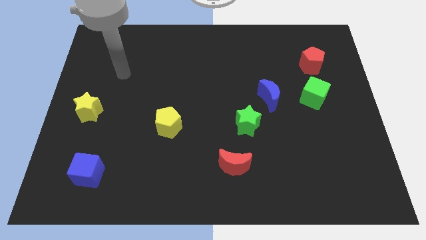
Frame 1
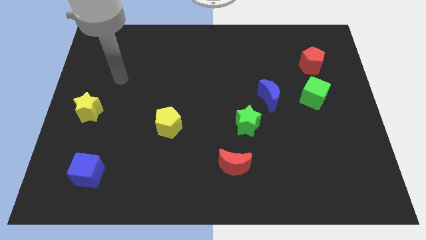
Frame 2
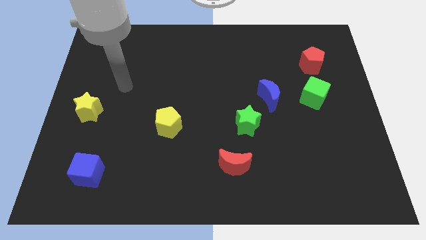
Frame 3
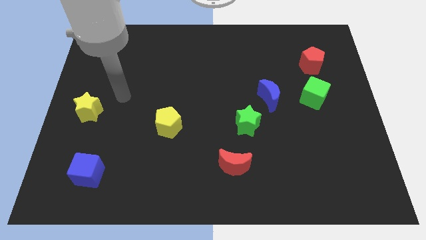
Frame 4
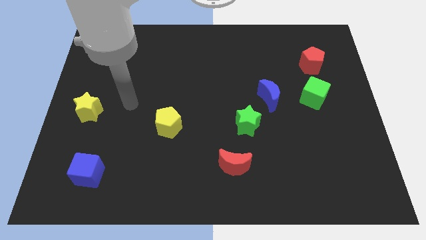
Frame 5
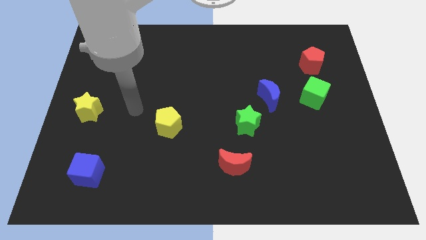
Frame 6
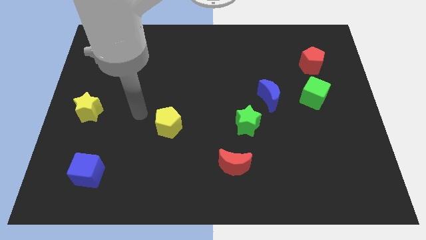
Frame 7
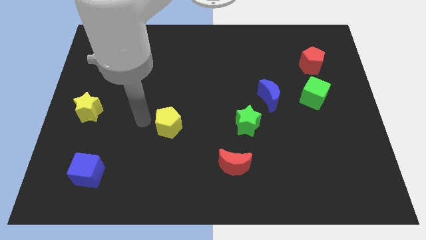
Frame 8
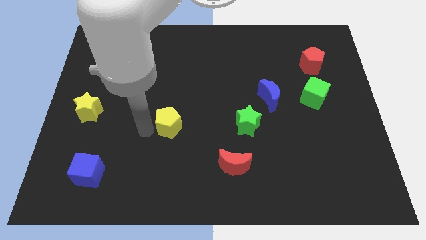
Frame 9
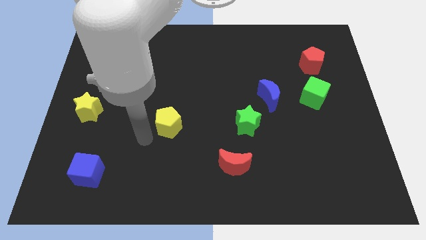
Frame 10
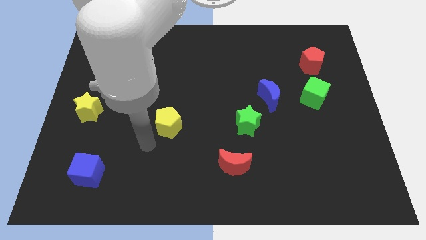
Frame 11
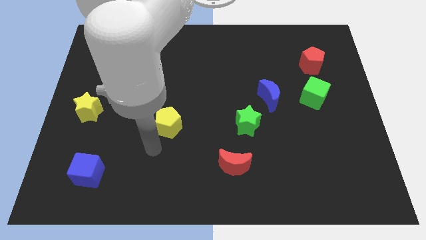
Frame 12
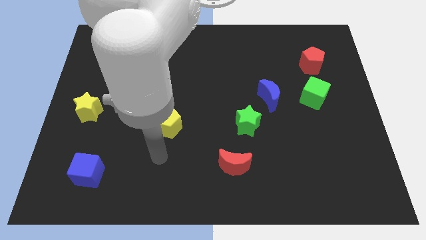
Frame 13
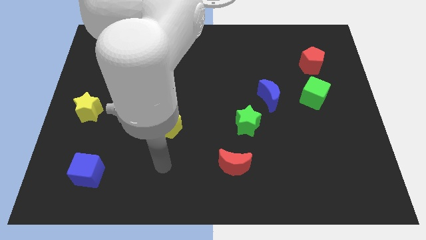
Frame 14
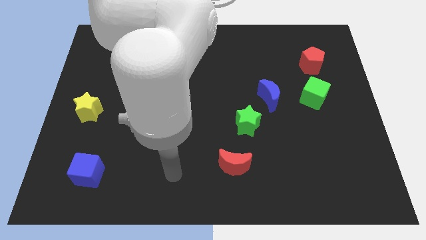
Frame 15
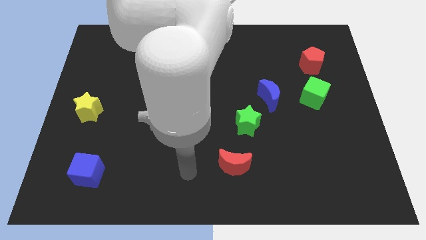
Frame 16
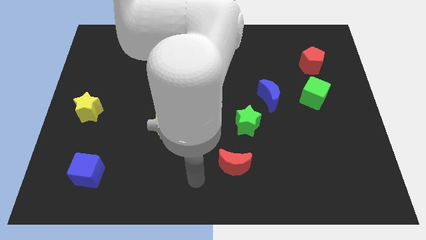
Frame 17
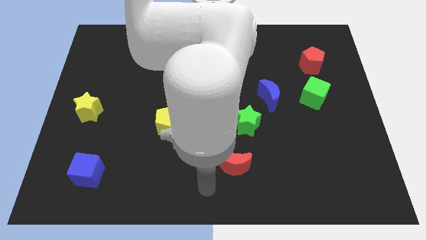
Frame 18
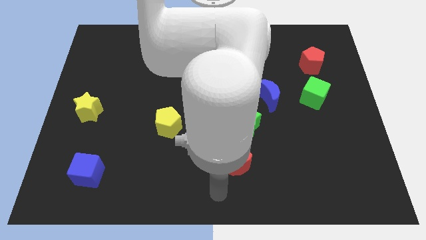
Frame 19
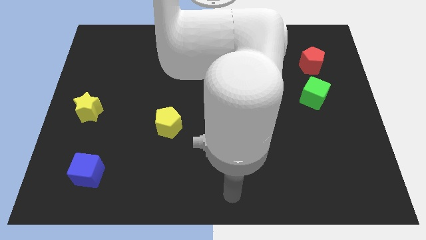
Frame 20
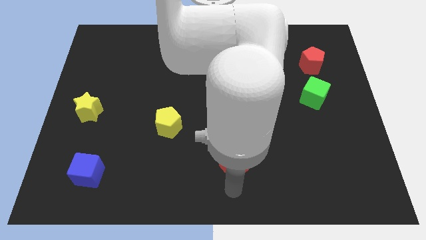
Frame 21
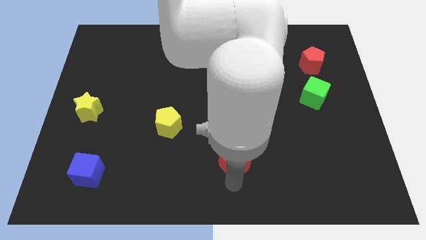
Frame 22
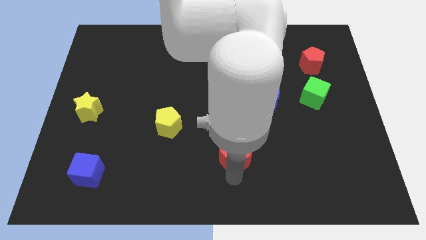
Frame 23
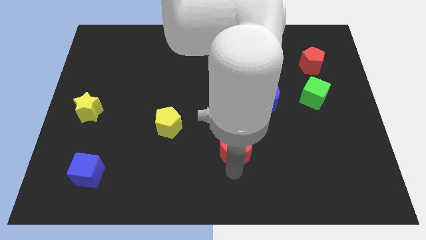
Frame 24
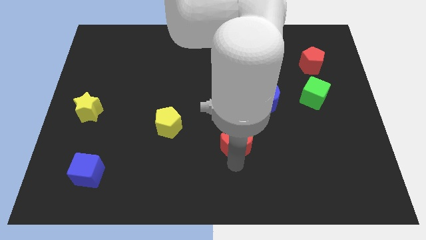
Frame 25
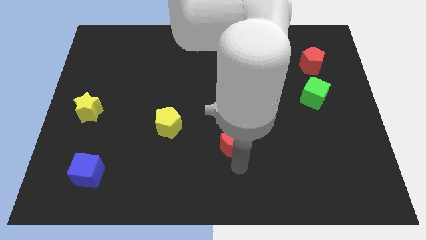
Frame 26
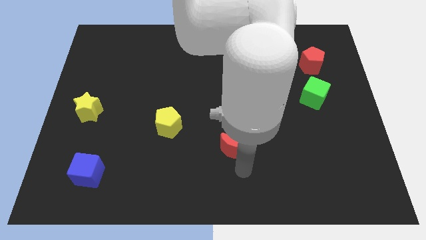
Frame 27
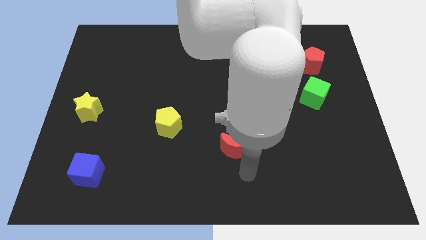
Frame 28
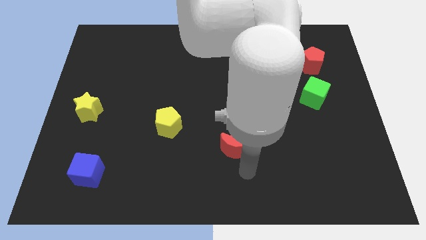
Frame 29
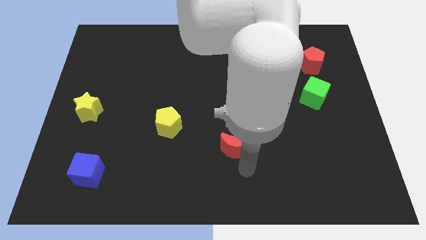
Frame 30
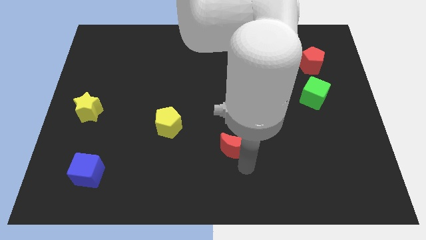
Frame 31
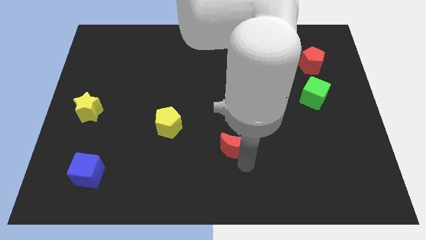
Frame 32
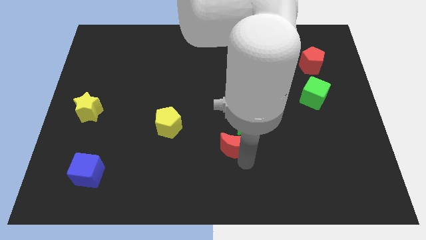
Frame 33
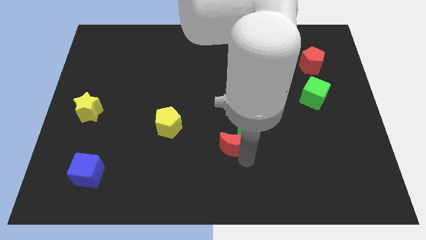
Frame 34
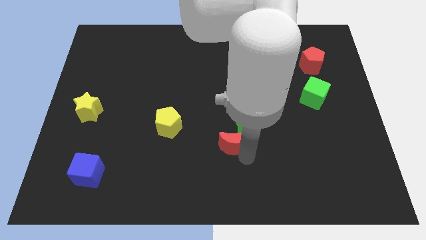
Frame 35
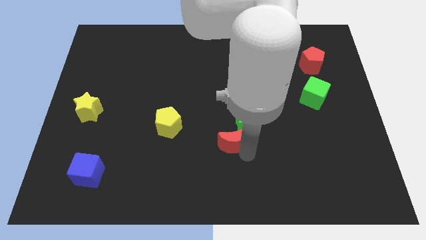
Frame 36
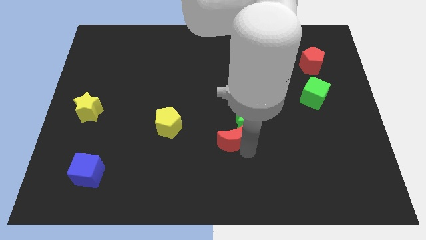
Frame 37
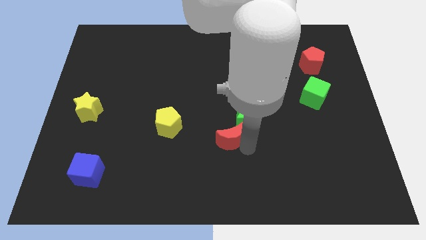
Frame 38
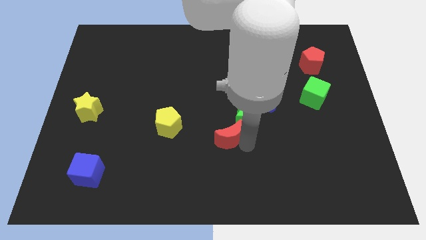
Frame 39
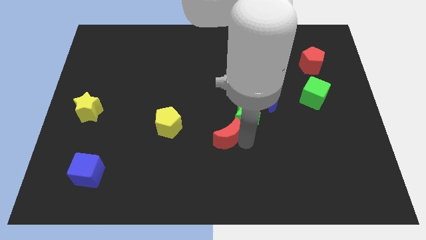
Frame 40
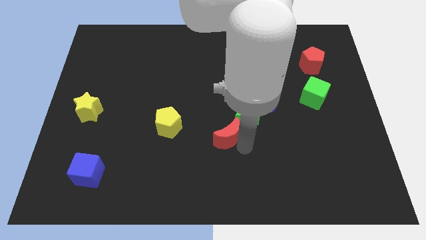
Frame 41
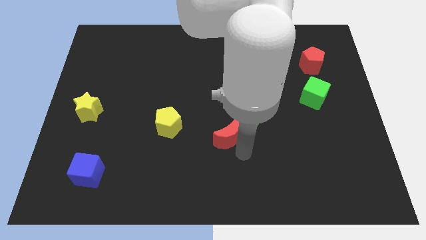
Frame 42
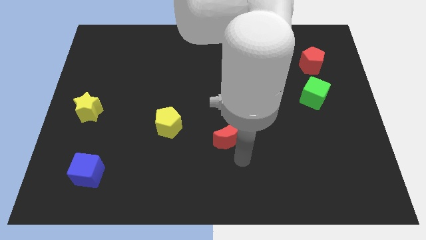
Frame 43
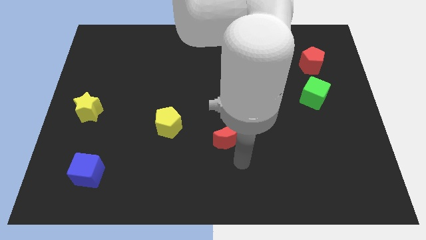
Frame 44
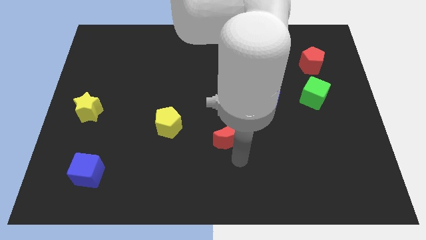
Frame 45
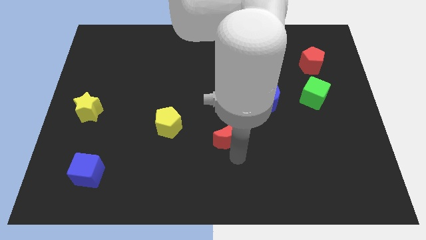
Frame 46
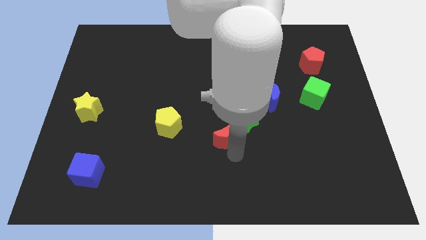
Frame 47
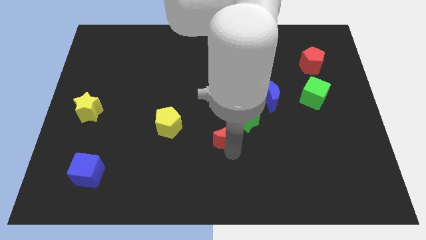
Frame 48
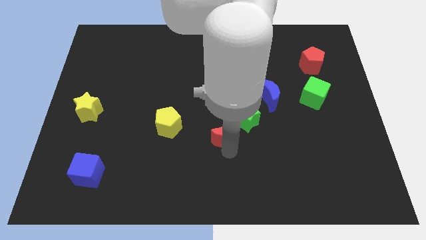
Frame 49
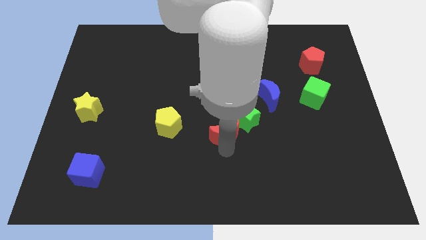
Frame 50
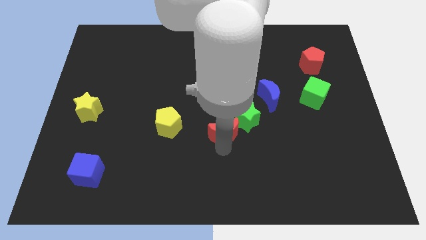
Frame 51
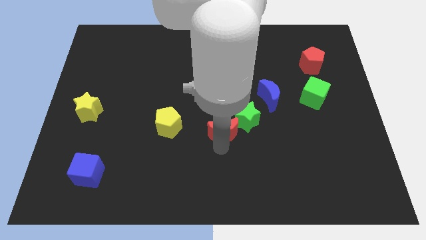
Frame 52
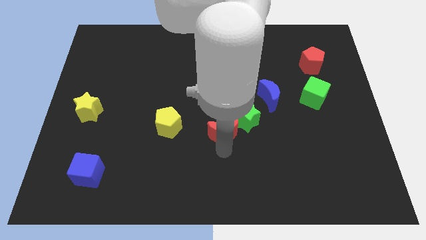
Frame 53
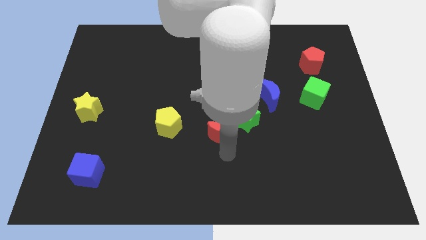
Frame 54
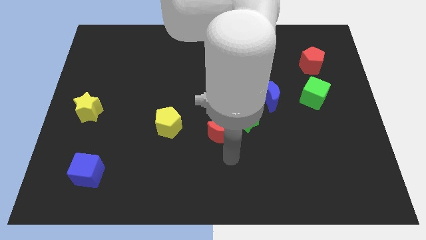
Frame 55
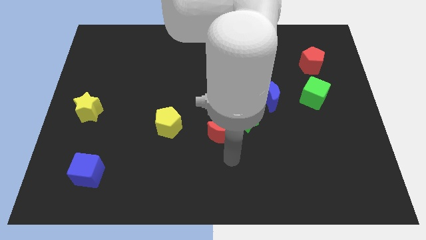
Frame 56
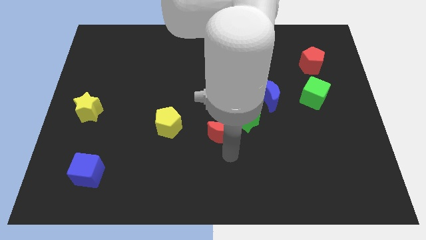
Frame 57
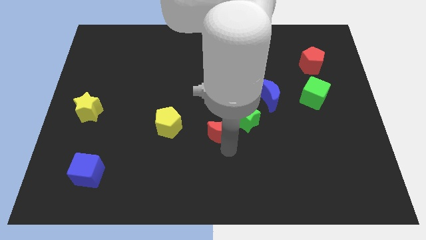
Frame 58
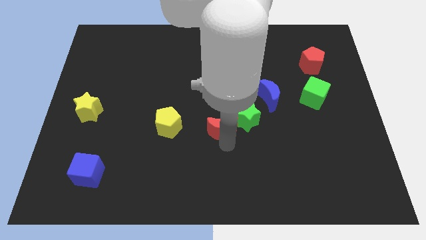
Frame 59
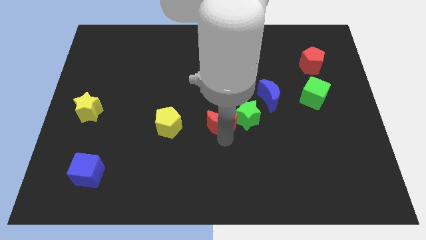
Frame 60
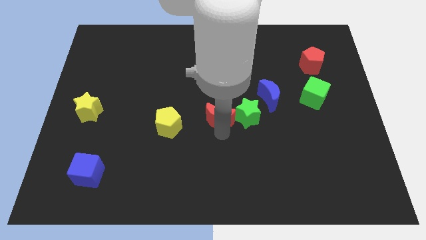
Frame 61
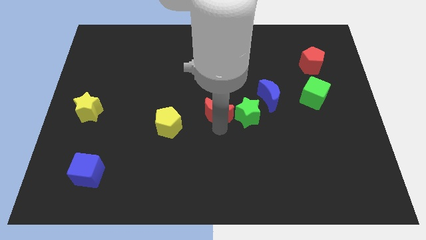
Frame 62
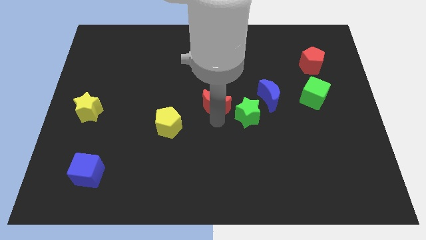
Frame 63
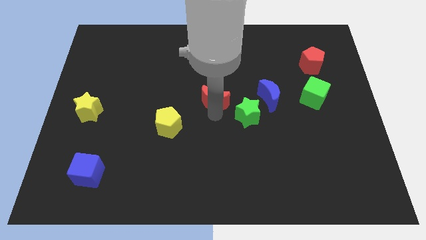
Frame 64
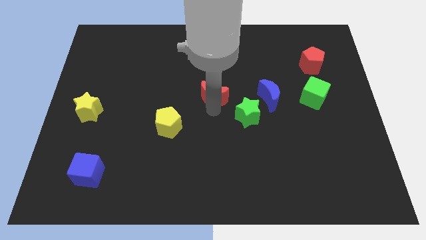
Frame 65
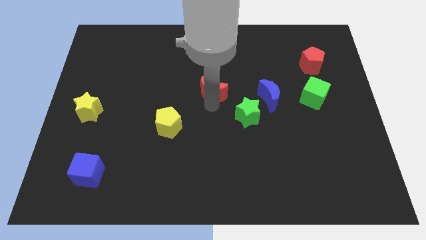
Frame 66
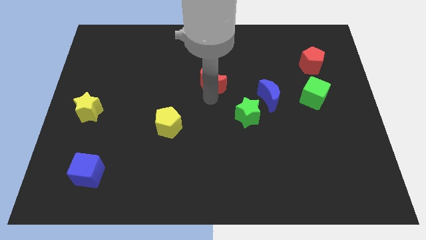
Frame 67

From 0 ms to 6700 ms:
slide the red moon upwards

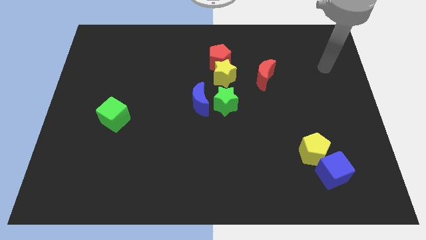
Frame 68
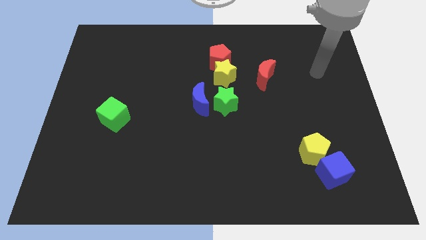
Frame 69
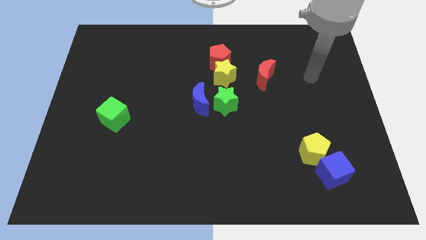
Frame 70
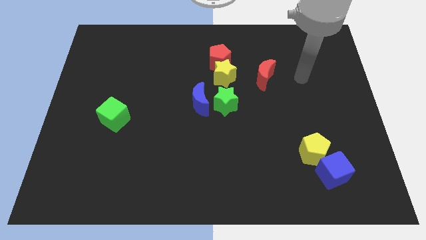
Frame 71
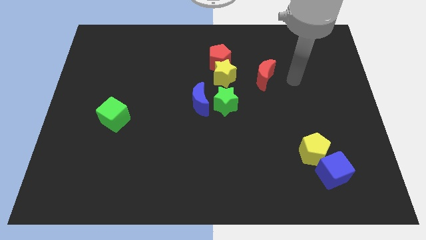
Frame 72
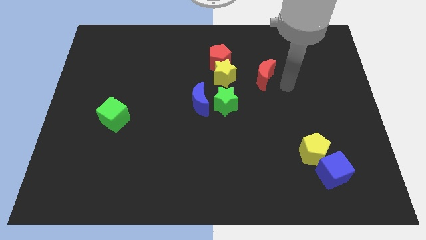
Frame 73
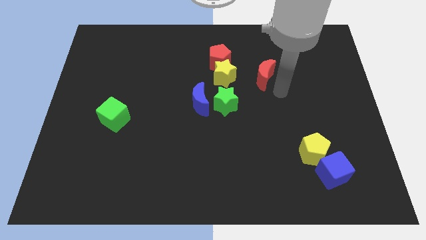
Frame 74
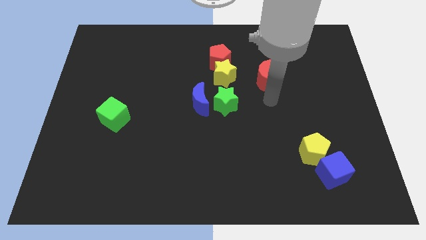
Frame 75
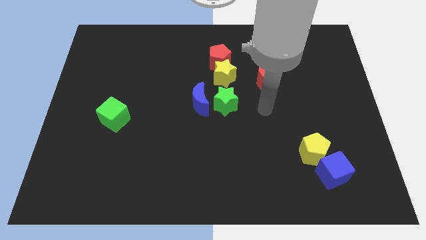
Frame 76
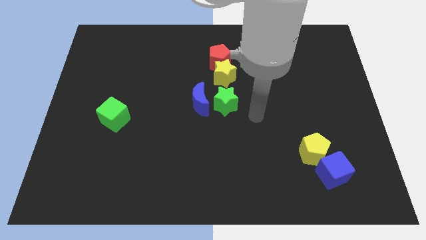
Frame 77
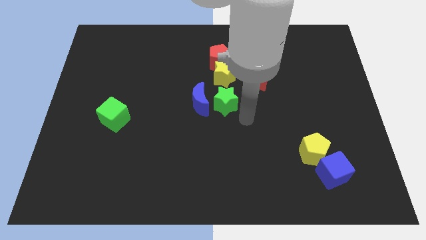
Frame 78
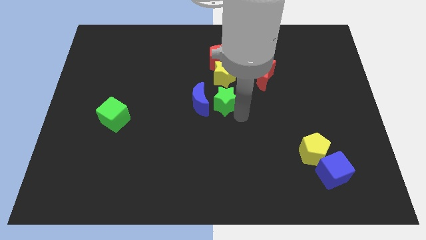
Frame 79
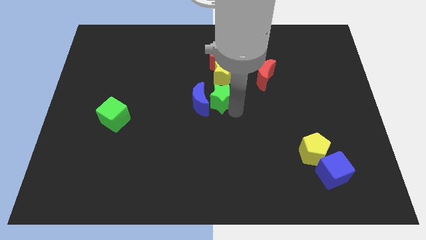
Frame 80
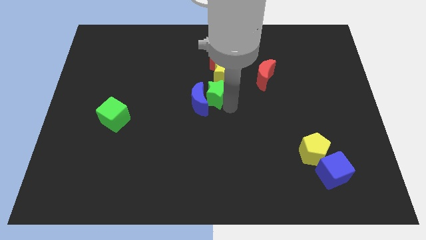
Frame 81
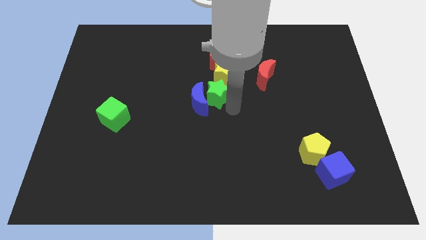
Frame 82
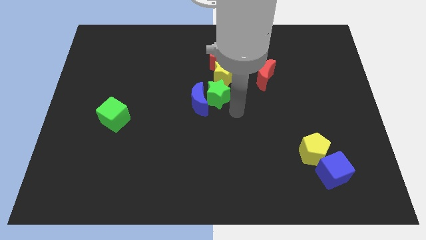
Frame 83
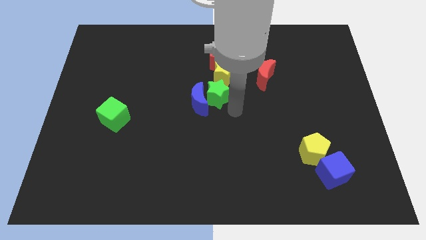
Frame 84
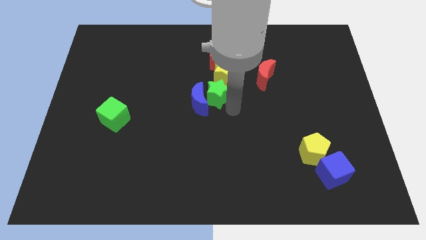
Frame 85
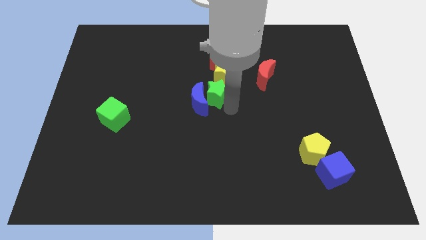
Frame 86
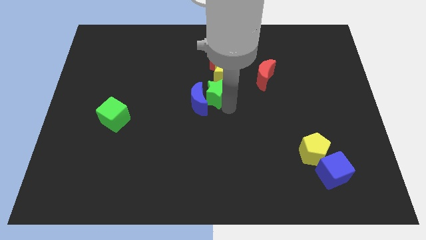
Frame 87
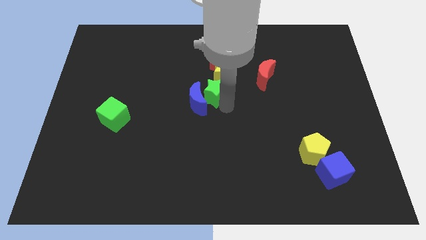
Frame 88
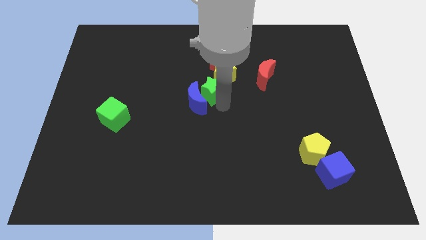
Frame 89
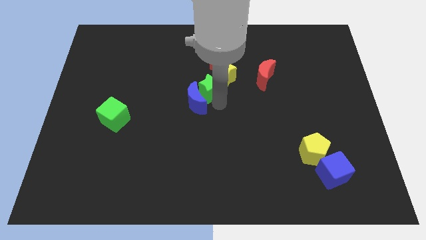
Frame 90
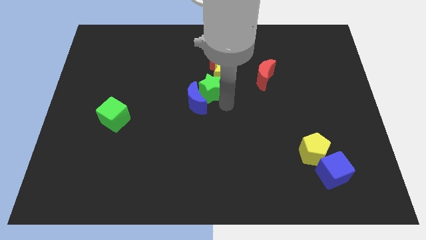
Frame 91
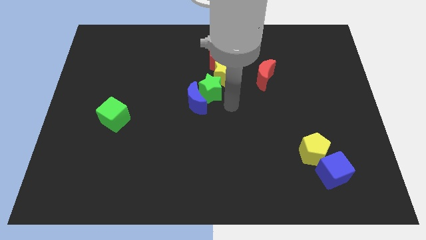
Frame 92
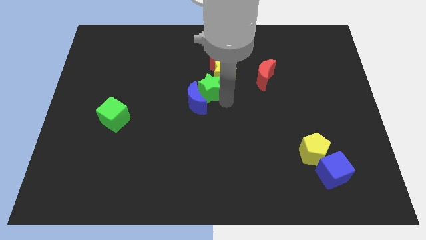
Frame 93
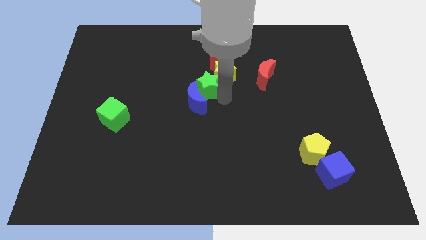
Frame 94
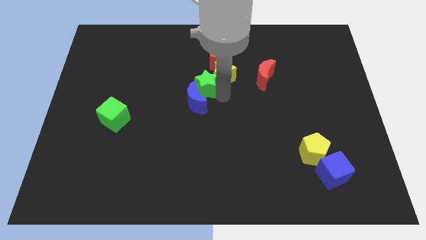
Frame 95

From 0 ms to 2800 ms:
slide the green star up and left diagonally somewhat
